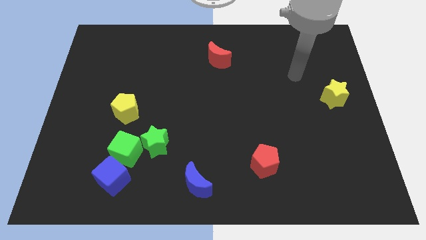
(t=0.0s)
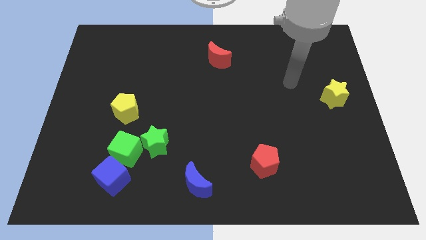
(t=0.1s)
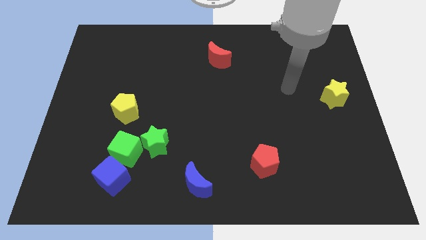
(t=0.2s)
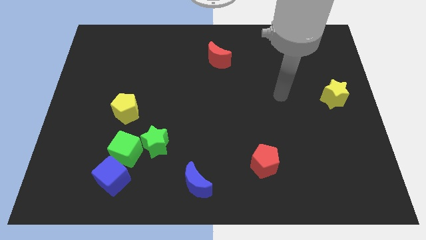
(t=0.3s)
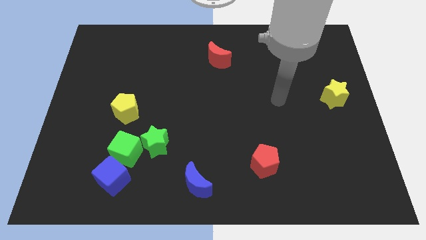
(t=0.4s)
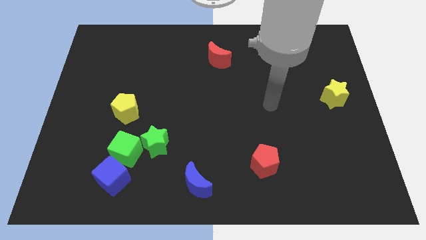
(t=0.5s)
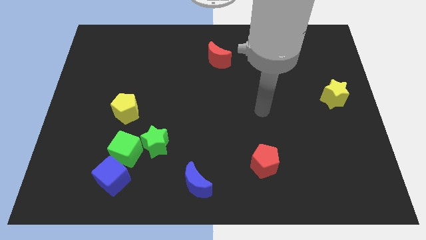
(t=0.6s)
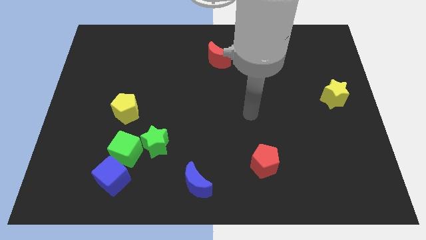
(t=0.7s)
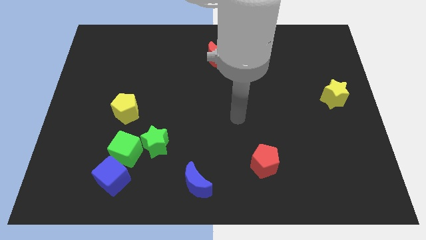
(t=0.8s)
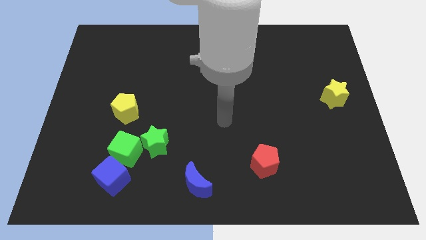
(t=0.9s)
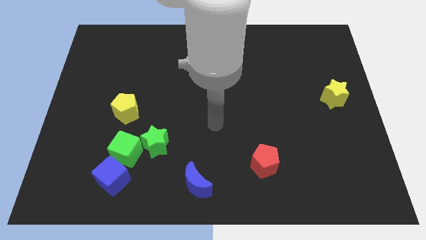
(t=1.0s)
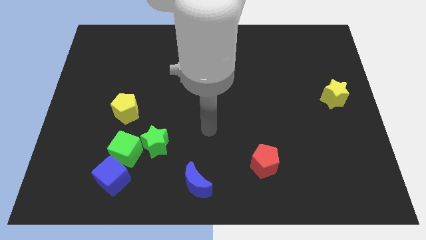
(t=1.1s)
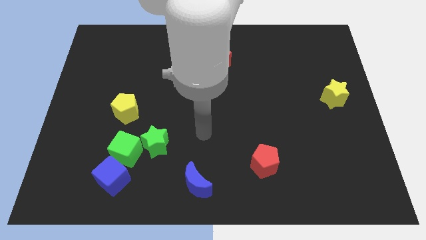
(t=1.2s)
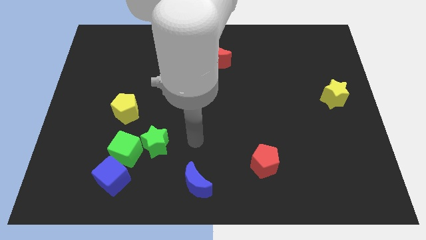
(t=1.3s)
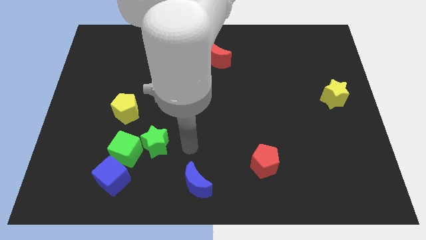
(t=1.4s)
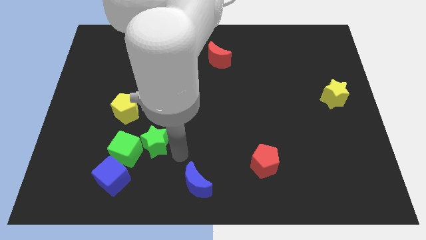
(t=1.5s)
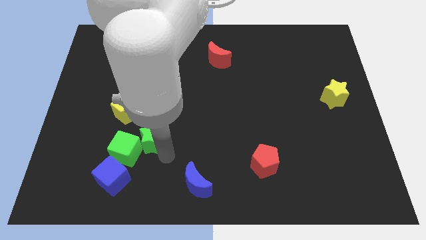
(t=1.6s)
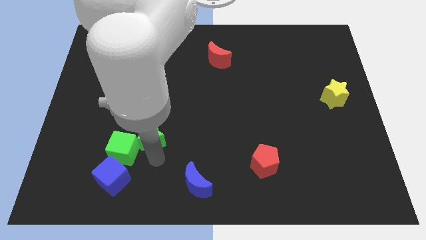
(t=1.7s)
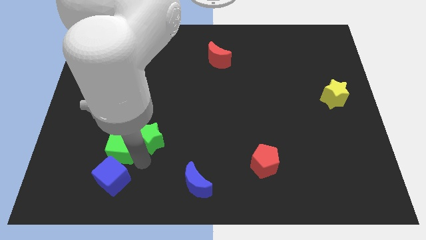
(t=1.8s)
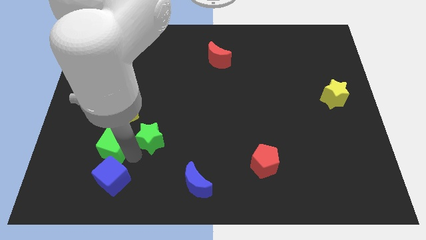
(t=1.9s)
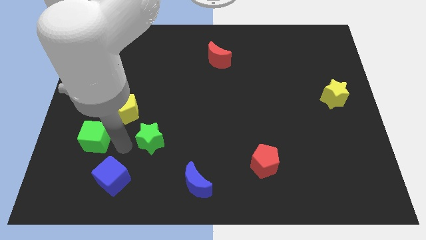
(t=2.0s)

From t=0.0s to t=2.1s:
pull the green star apart from the green cube

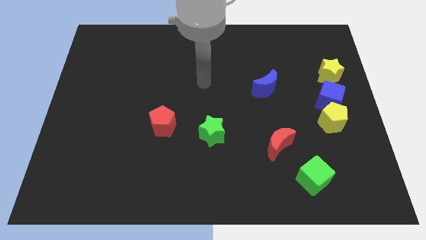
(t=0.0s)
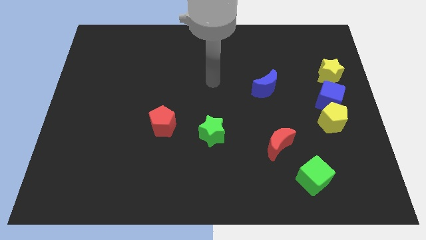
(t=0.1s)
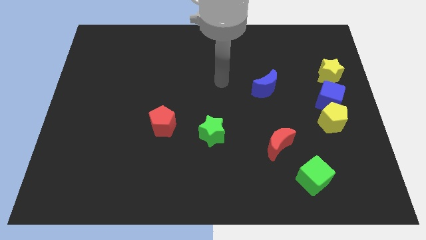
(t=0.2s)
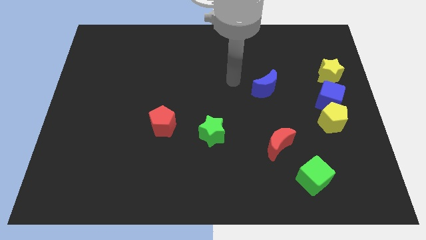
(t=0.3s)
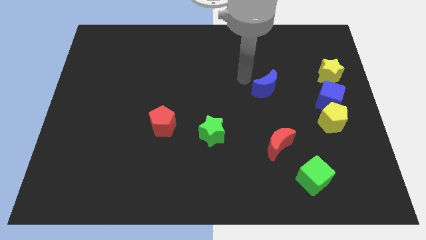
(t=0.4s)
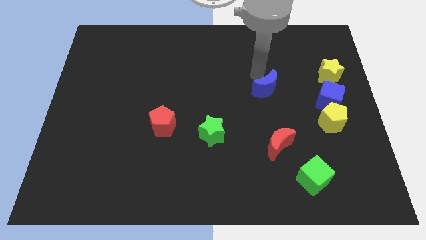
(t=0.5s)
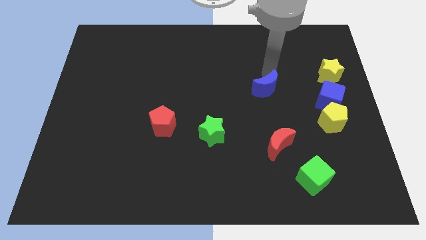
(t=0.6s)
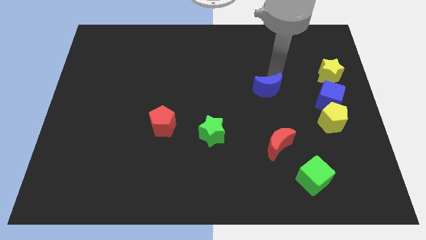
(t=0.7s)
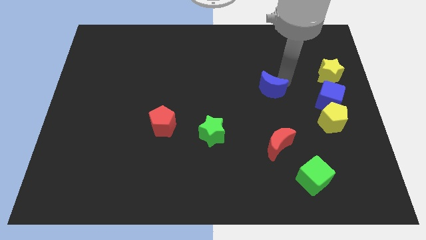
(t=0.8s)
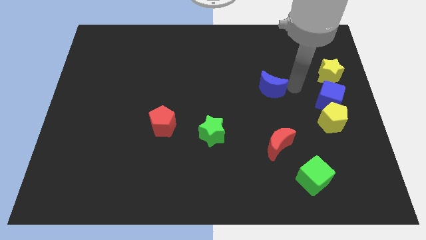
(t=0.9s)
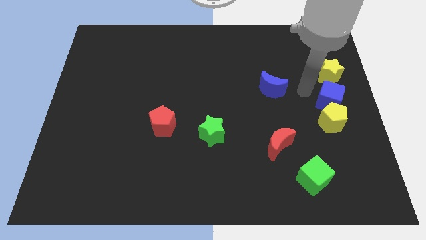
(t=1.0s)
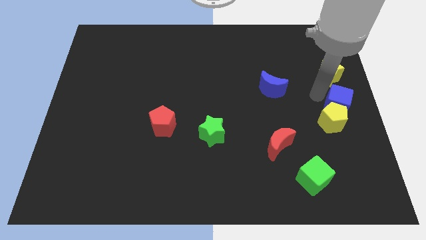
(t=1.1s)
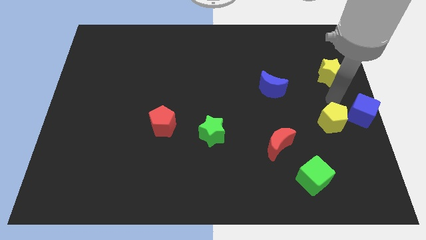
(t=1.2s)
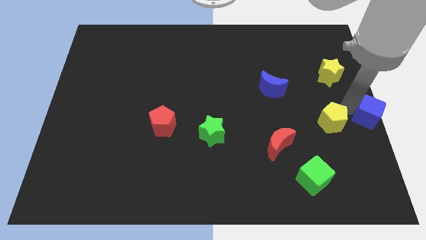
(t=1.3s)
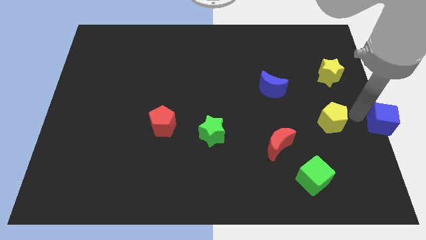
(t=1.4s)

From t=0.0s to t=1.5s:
move the yellow pentagon away from the blue cube

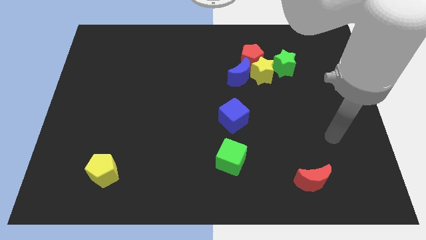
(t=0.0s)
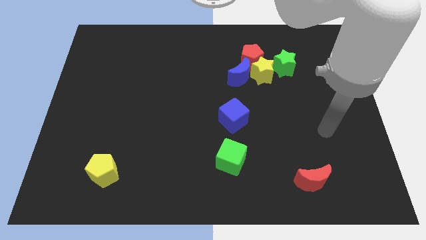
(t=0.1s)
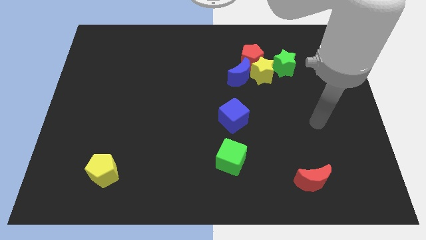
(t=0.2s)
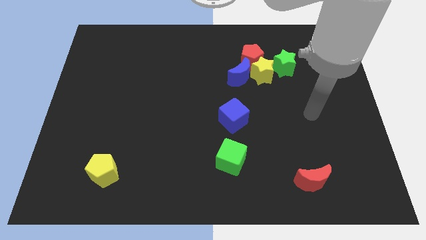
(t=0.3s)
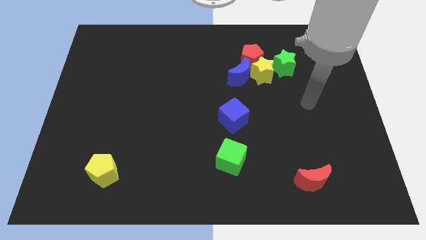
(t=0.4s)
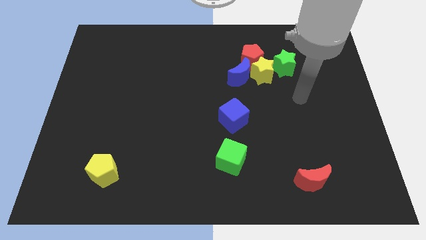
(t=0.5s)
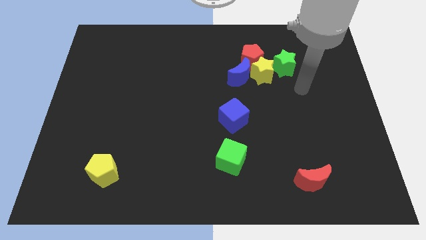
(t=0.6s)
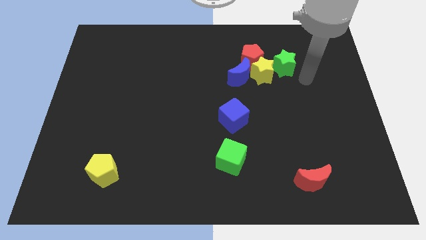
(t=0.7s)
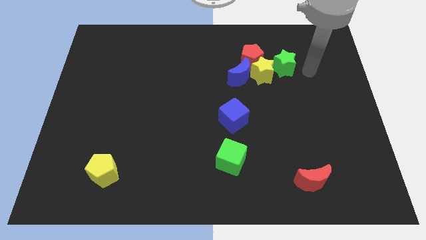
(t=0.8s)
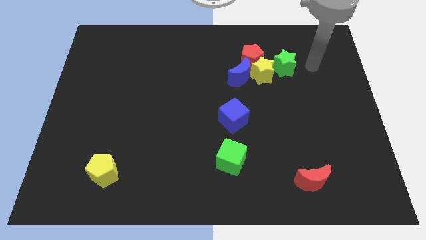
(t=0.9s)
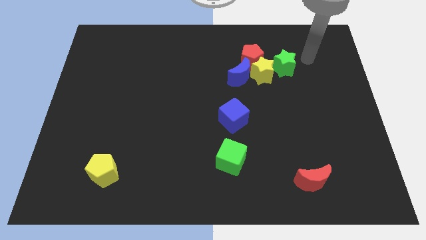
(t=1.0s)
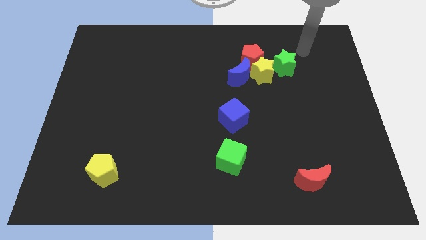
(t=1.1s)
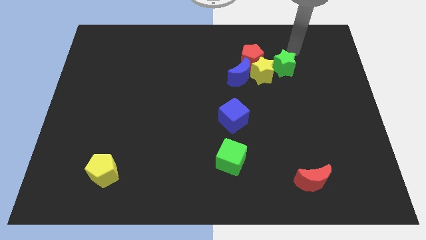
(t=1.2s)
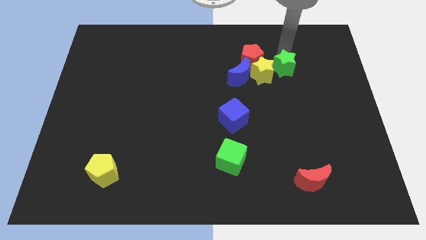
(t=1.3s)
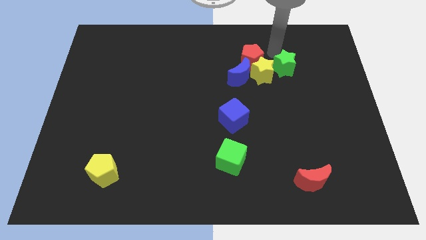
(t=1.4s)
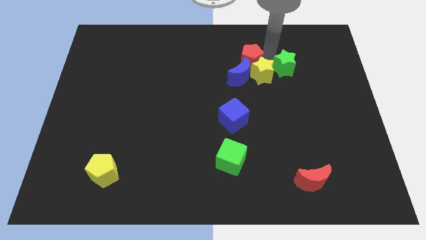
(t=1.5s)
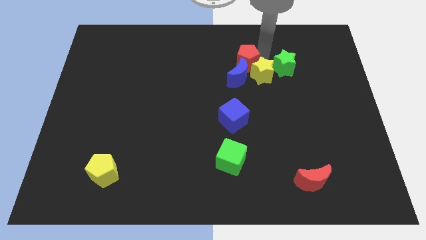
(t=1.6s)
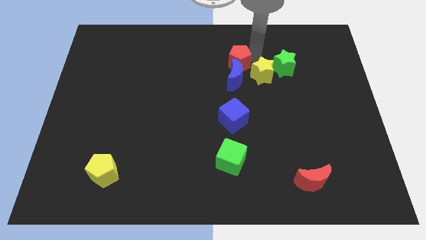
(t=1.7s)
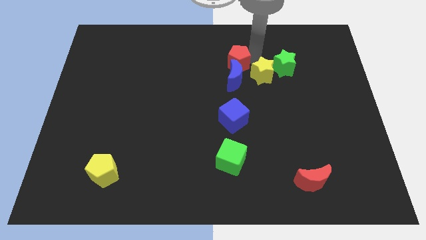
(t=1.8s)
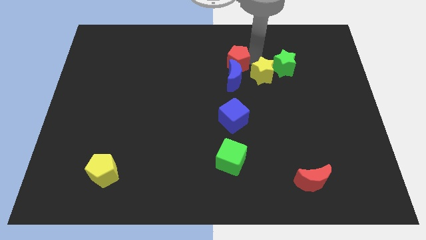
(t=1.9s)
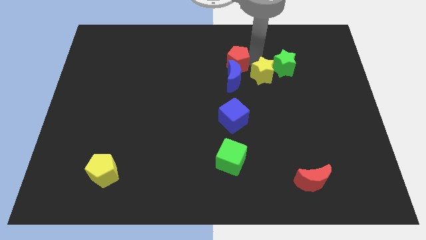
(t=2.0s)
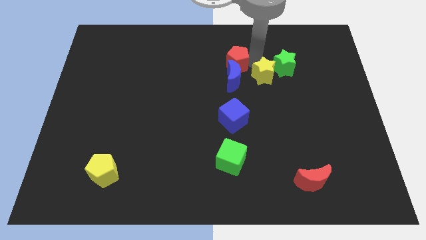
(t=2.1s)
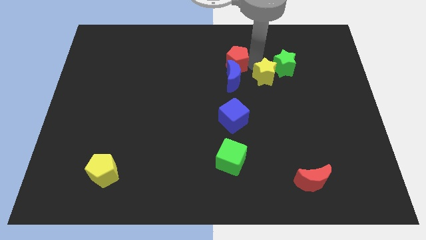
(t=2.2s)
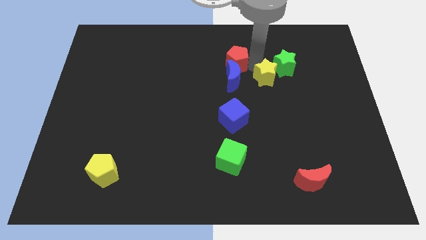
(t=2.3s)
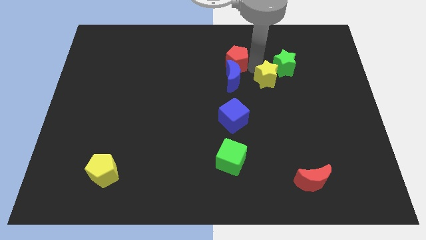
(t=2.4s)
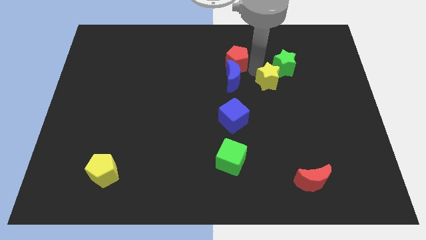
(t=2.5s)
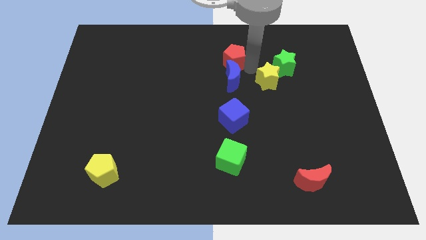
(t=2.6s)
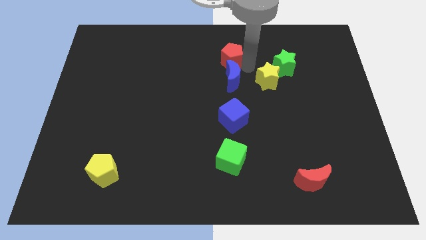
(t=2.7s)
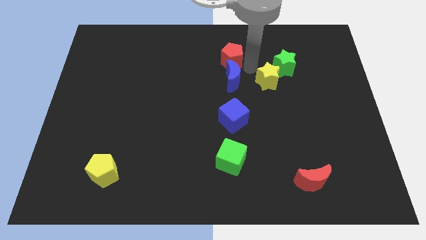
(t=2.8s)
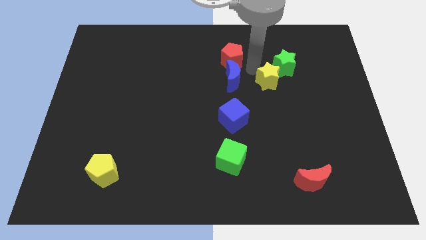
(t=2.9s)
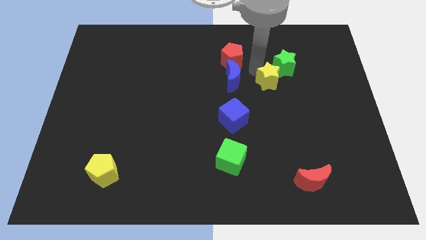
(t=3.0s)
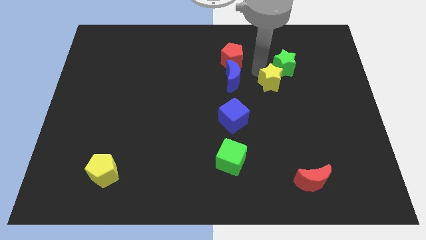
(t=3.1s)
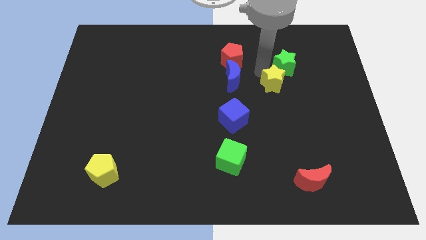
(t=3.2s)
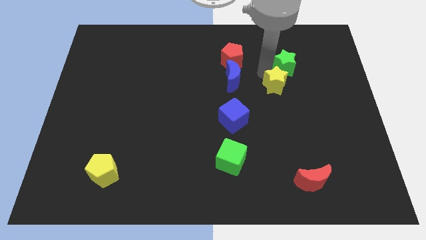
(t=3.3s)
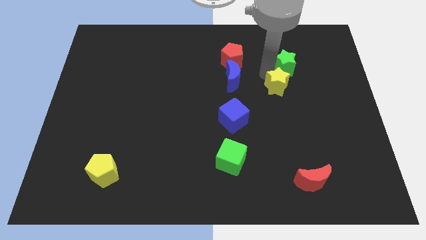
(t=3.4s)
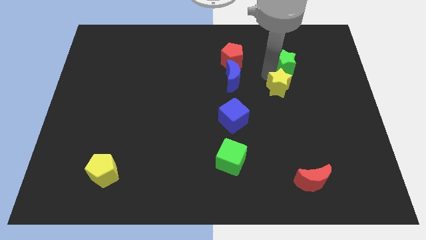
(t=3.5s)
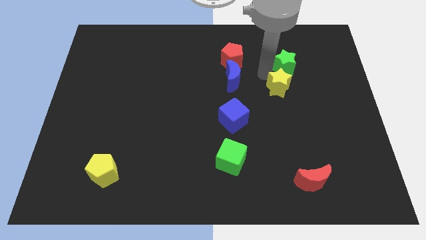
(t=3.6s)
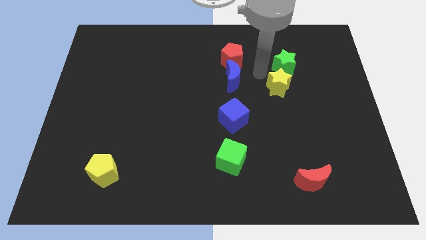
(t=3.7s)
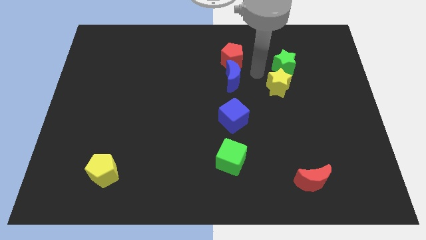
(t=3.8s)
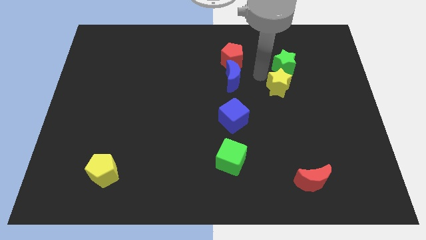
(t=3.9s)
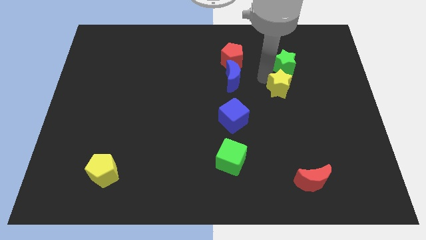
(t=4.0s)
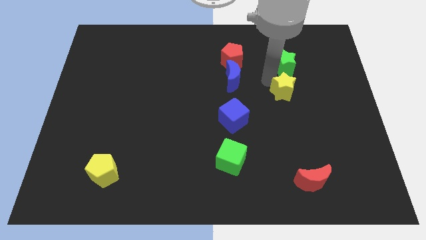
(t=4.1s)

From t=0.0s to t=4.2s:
separate the yellow star from the blue moon, red pentagon, and green star

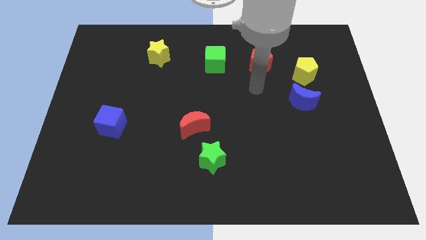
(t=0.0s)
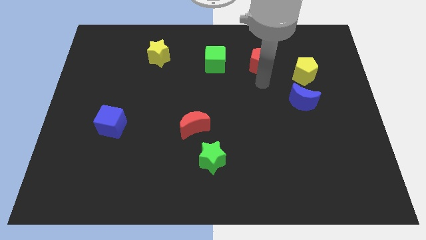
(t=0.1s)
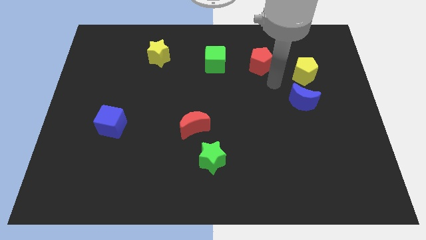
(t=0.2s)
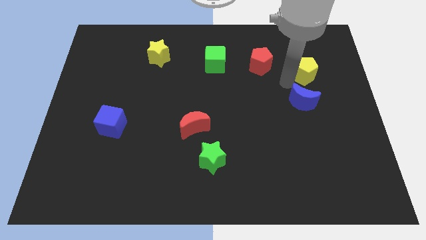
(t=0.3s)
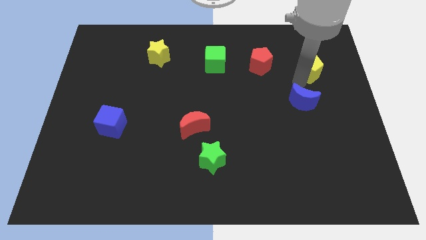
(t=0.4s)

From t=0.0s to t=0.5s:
separate the blue moon from the yellow pentagon

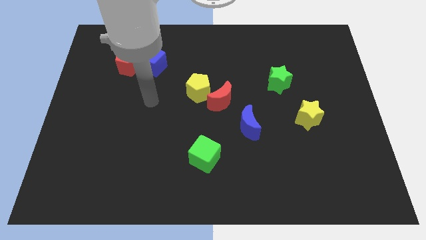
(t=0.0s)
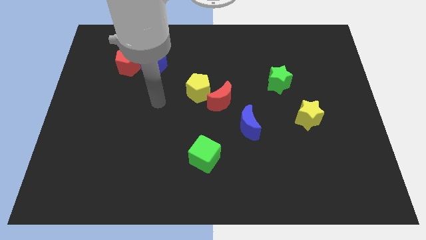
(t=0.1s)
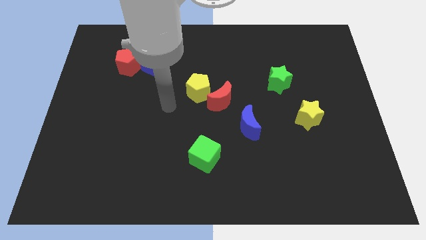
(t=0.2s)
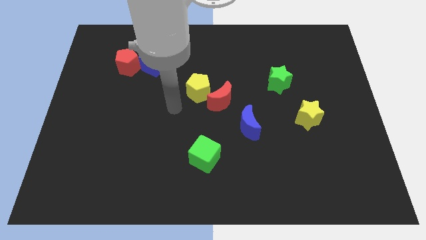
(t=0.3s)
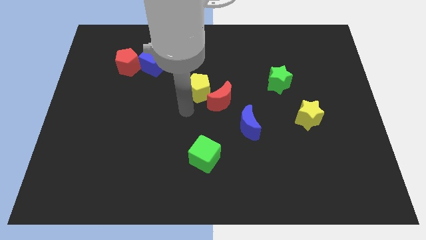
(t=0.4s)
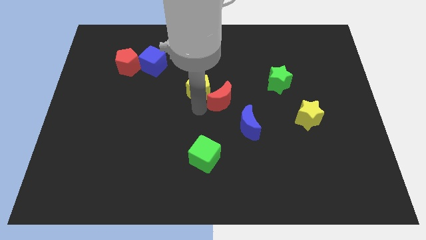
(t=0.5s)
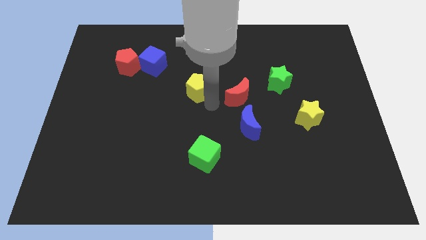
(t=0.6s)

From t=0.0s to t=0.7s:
separate the yellow pentagon from the red moon

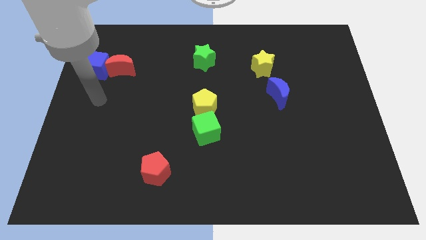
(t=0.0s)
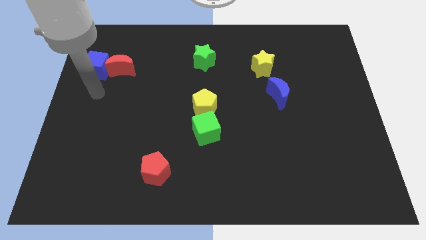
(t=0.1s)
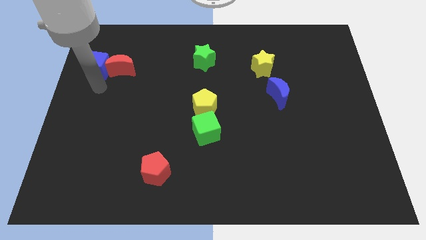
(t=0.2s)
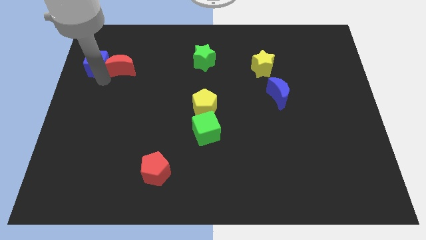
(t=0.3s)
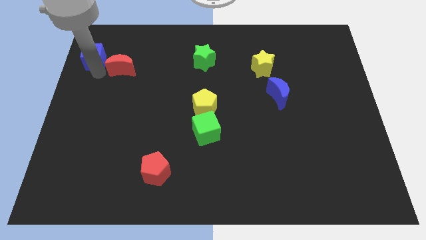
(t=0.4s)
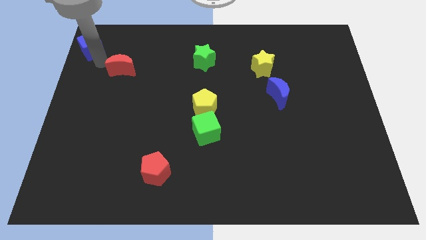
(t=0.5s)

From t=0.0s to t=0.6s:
move the red moon away from the blue cube
